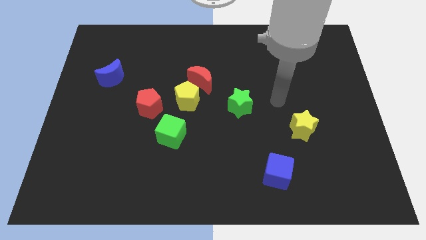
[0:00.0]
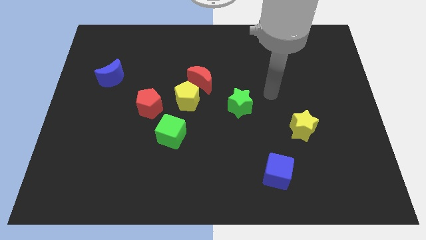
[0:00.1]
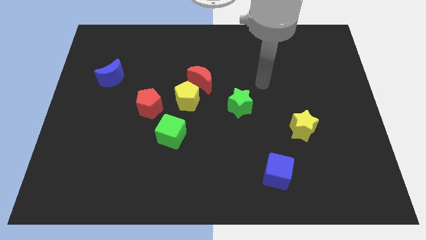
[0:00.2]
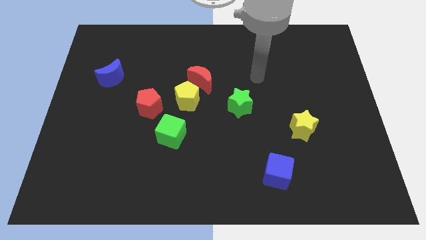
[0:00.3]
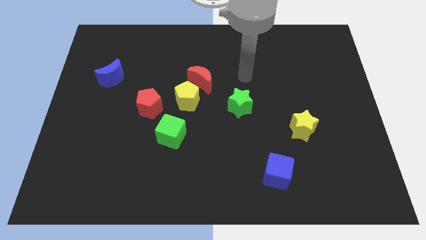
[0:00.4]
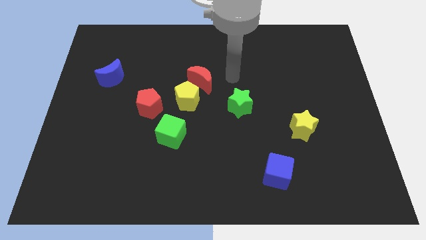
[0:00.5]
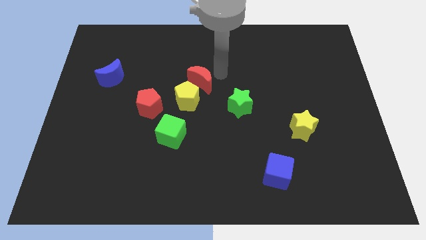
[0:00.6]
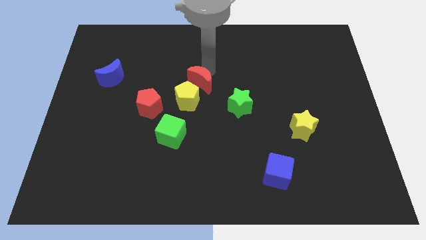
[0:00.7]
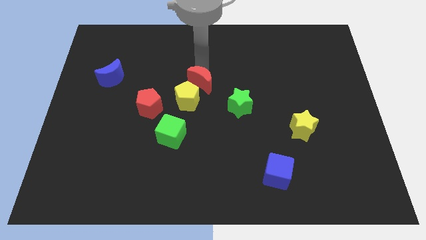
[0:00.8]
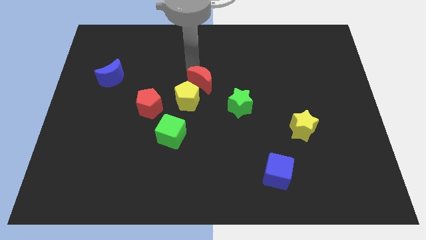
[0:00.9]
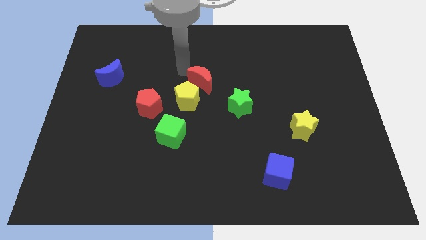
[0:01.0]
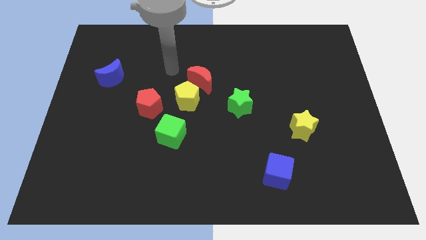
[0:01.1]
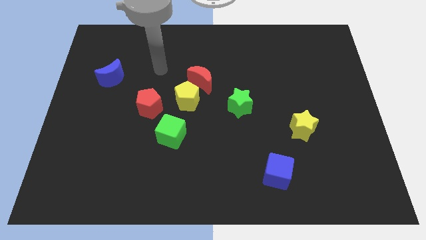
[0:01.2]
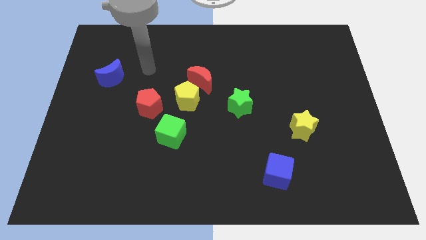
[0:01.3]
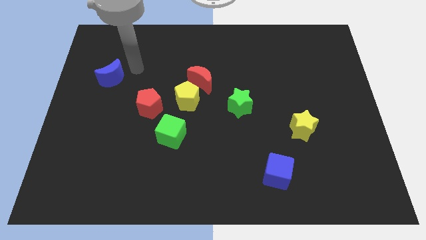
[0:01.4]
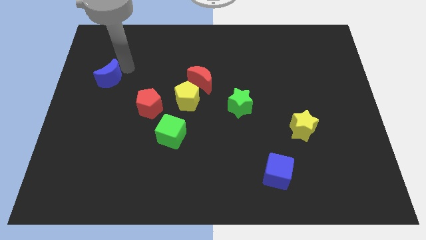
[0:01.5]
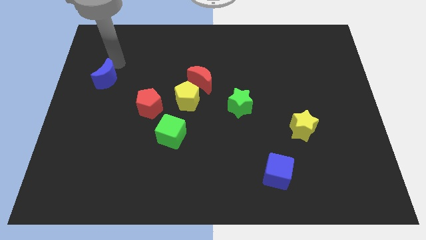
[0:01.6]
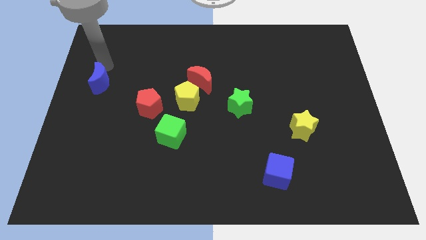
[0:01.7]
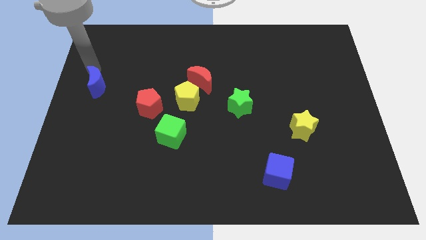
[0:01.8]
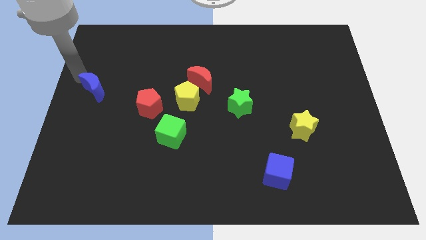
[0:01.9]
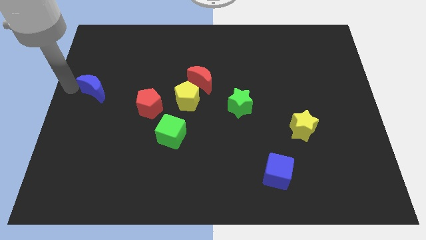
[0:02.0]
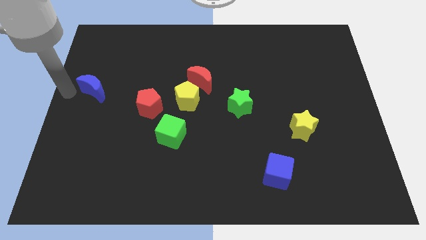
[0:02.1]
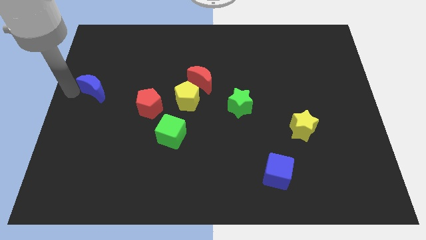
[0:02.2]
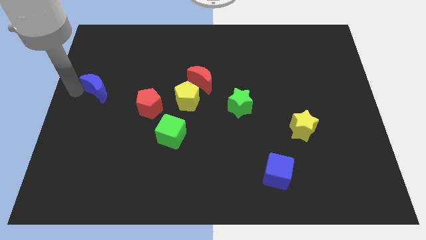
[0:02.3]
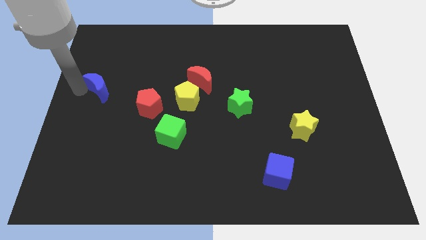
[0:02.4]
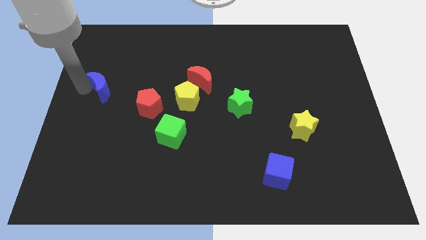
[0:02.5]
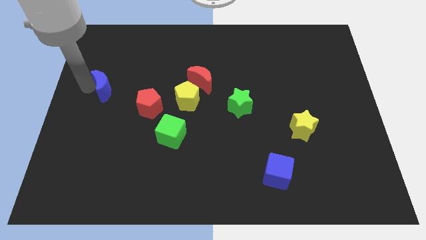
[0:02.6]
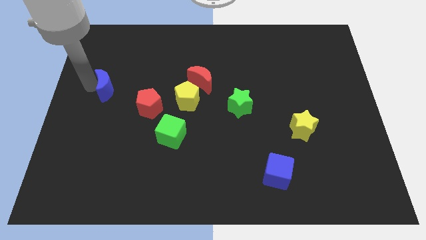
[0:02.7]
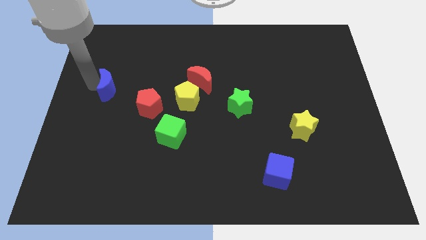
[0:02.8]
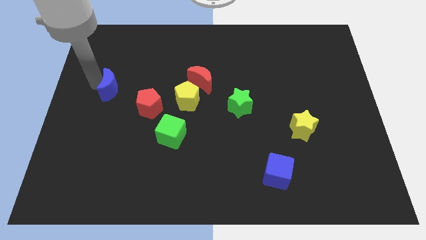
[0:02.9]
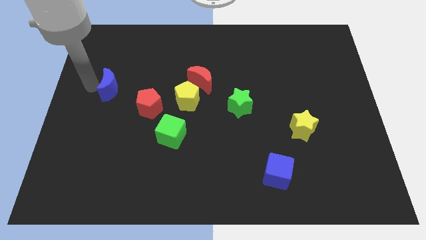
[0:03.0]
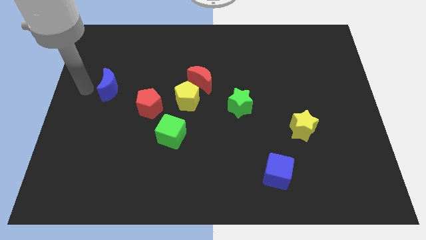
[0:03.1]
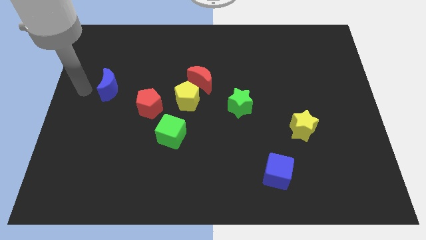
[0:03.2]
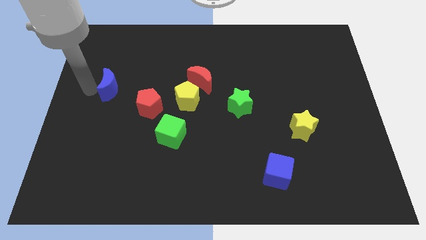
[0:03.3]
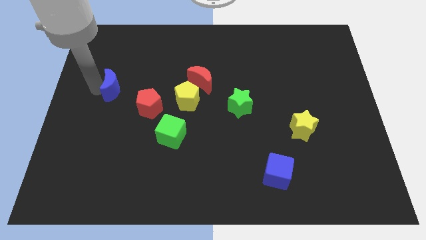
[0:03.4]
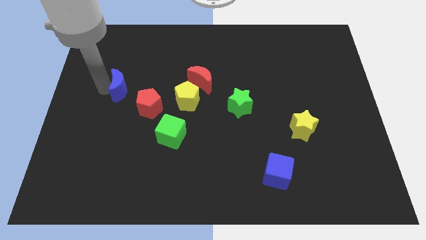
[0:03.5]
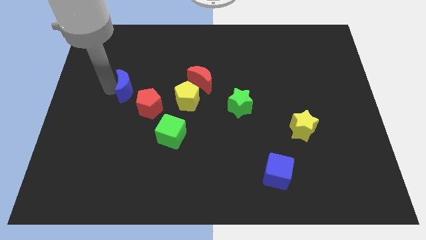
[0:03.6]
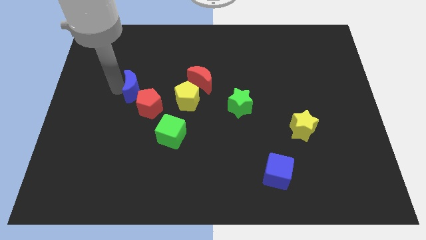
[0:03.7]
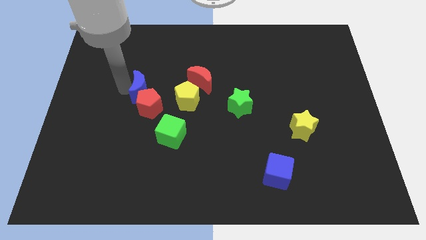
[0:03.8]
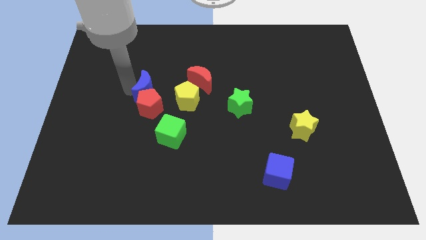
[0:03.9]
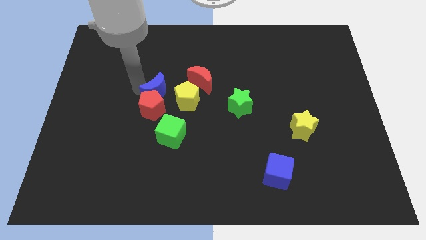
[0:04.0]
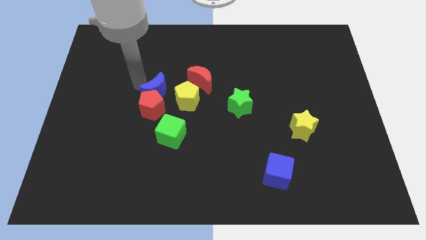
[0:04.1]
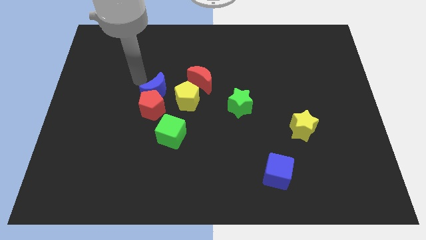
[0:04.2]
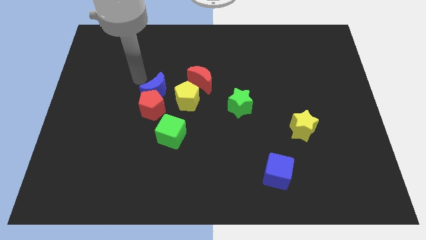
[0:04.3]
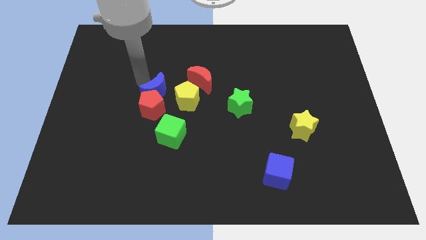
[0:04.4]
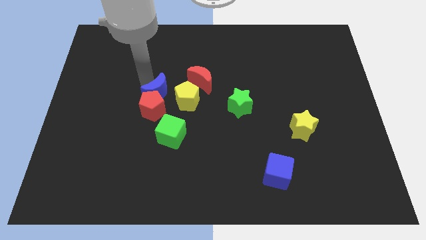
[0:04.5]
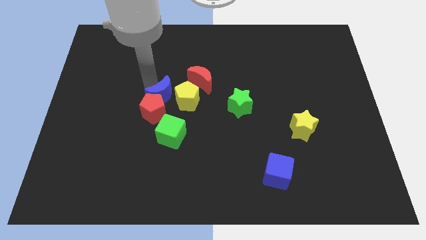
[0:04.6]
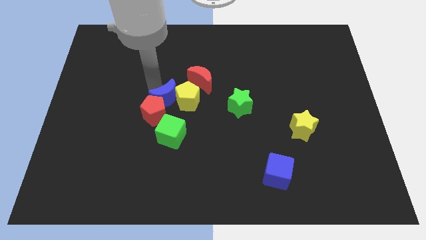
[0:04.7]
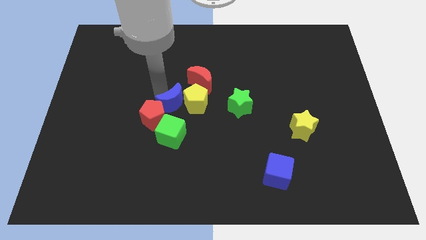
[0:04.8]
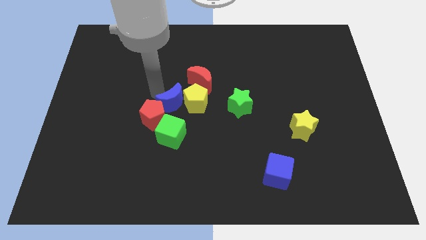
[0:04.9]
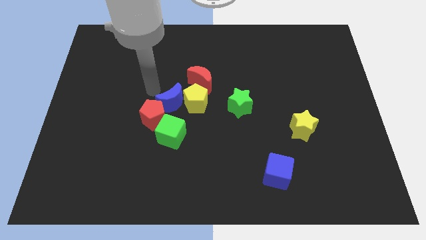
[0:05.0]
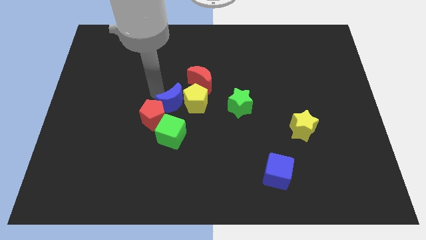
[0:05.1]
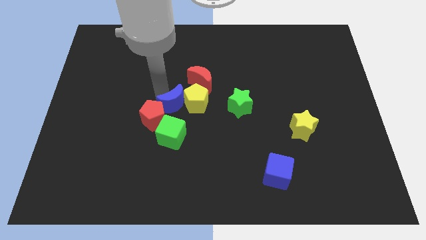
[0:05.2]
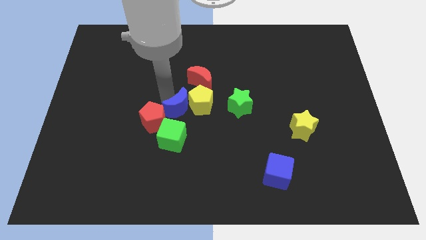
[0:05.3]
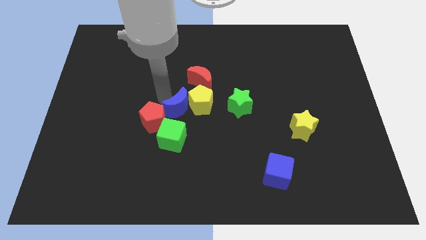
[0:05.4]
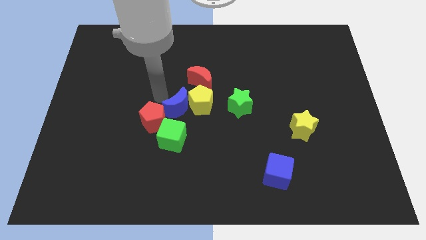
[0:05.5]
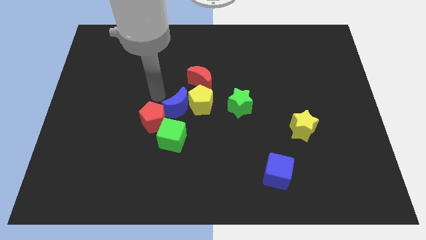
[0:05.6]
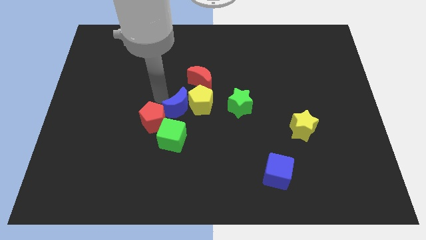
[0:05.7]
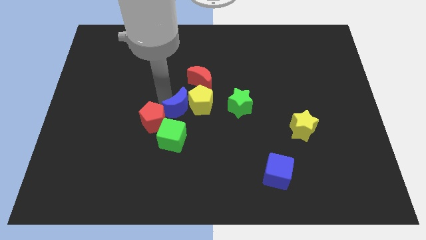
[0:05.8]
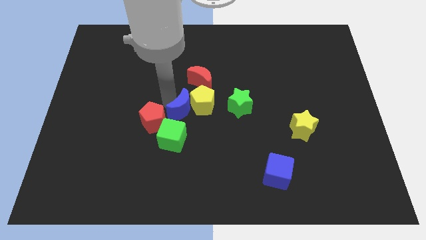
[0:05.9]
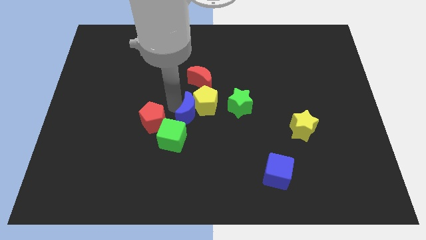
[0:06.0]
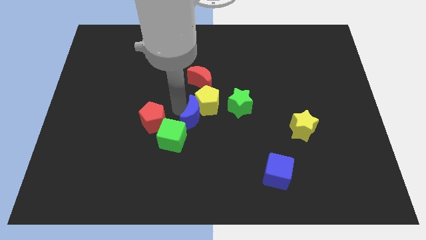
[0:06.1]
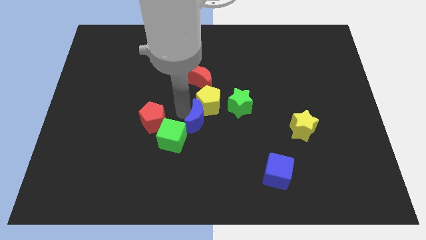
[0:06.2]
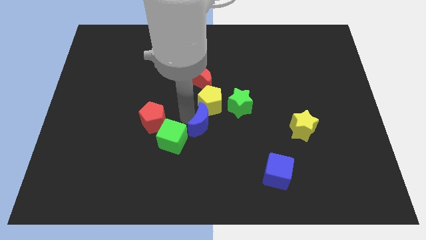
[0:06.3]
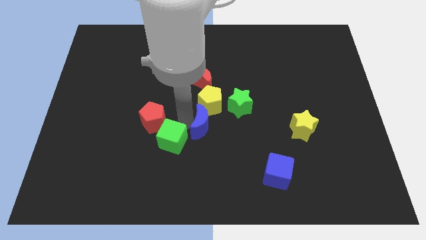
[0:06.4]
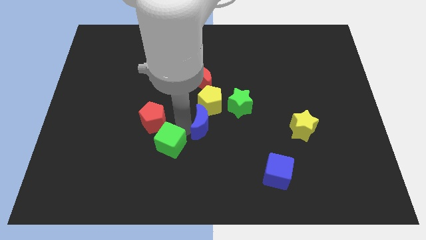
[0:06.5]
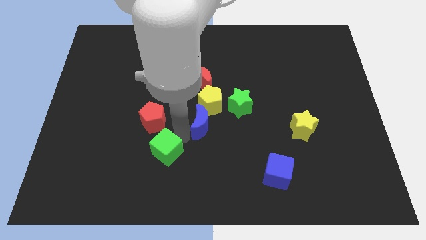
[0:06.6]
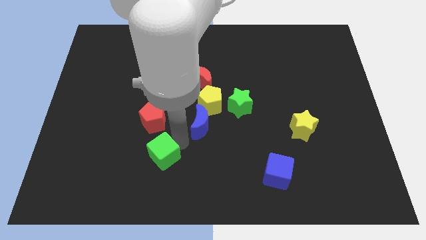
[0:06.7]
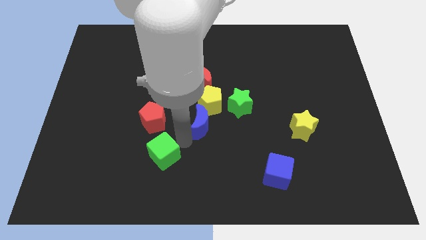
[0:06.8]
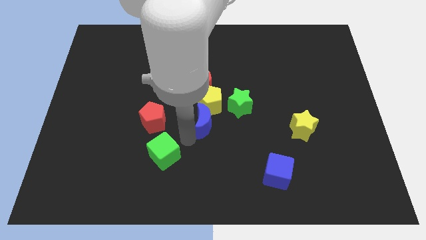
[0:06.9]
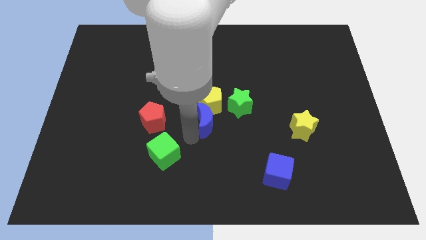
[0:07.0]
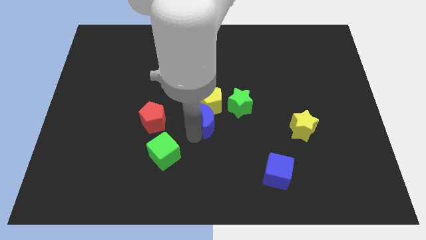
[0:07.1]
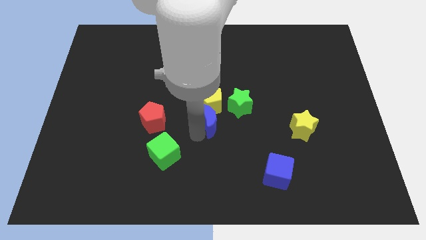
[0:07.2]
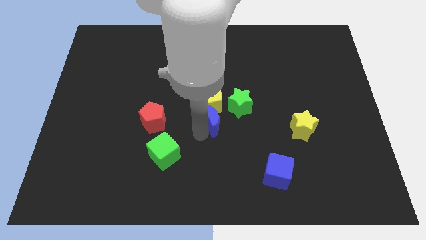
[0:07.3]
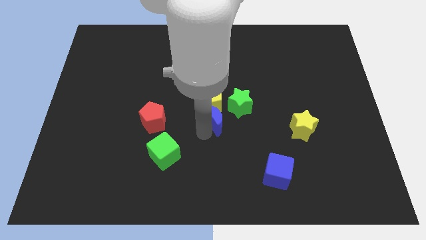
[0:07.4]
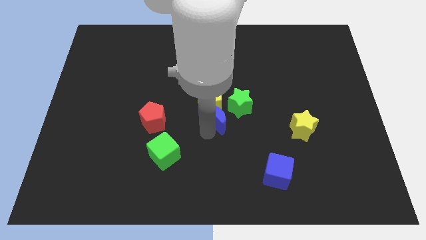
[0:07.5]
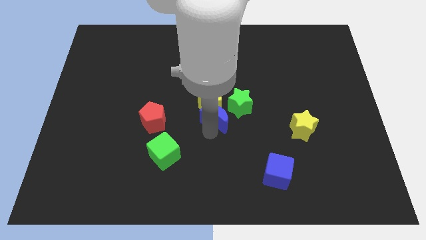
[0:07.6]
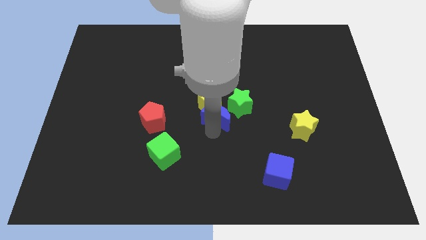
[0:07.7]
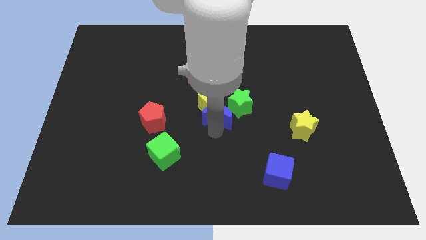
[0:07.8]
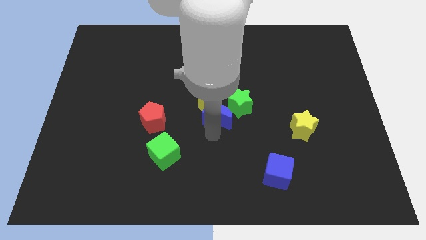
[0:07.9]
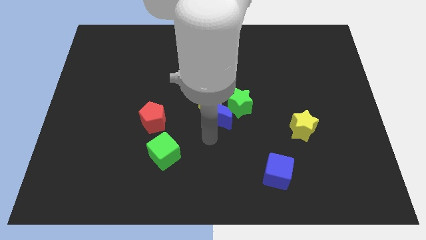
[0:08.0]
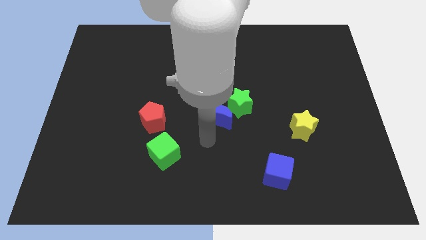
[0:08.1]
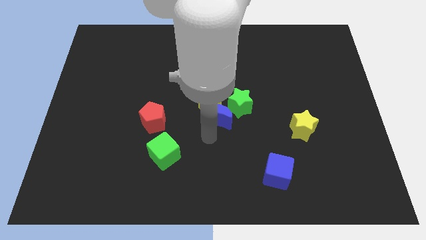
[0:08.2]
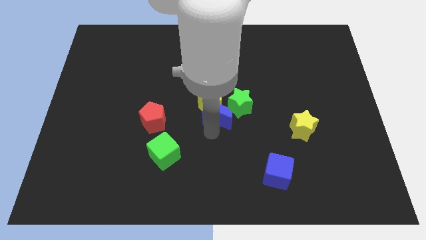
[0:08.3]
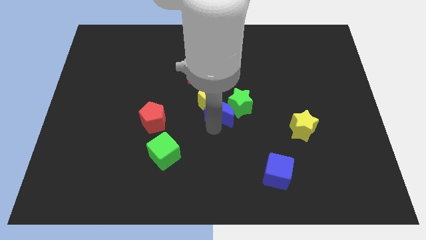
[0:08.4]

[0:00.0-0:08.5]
put the blue moon to the green star
